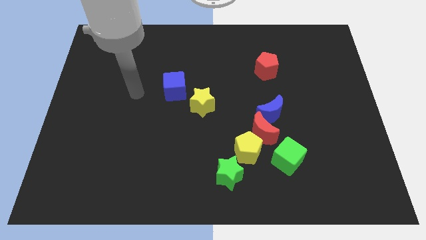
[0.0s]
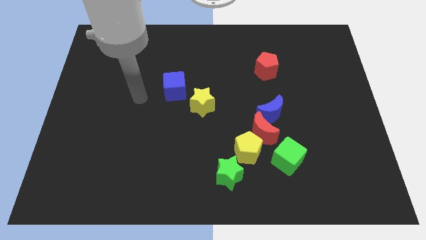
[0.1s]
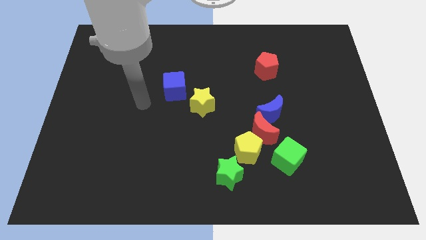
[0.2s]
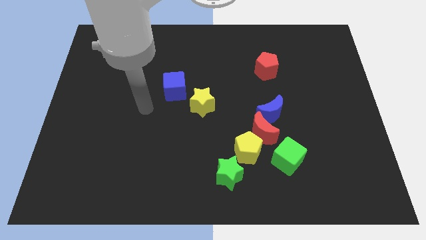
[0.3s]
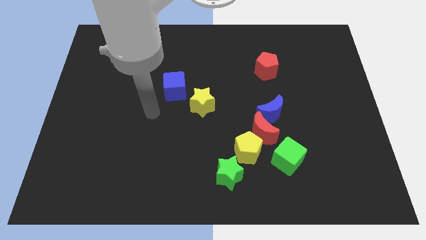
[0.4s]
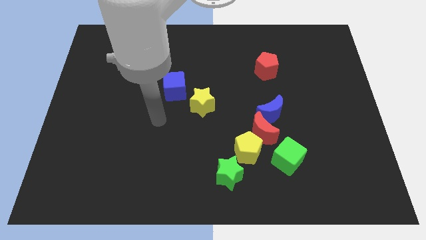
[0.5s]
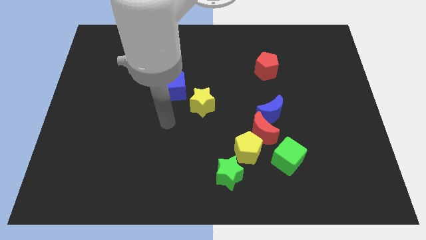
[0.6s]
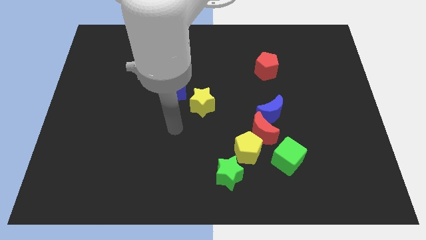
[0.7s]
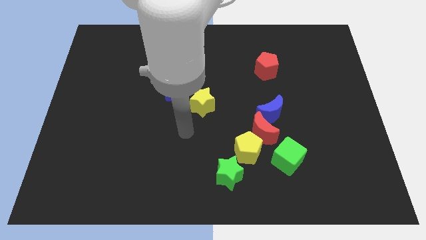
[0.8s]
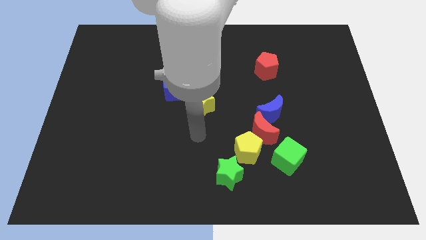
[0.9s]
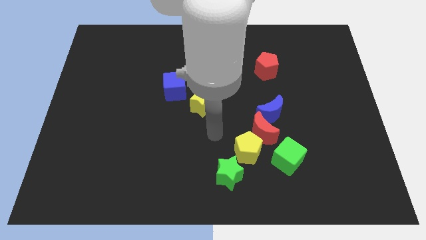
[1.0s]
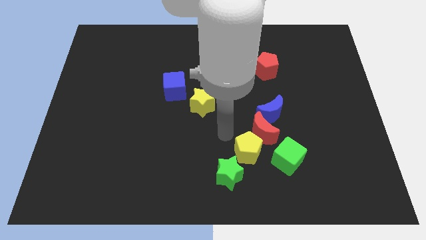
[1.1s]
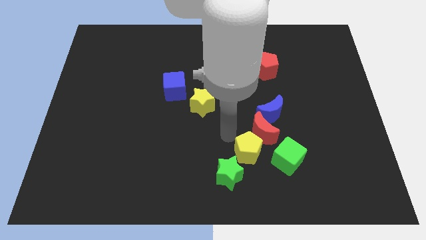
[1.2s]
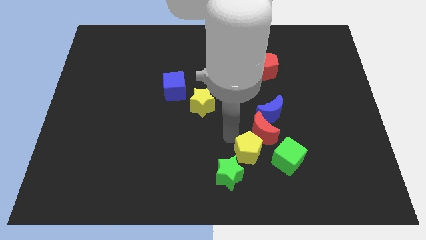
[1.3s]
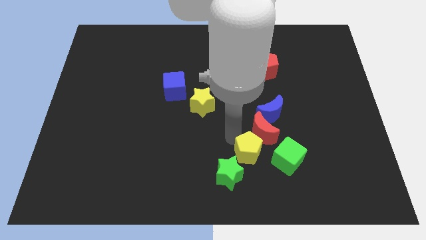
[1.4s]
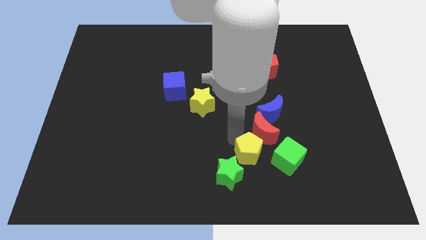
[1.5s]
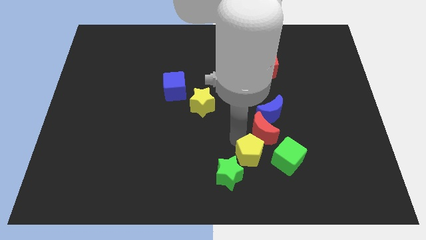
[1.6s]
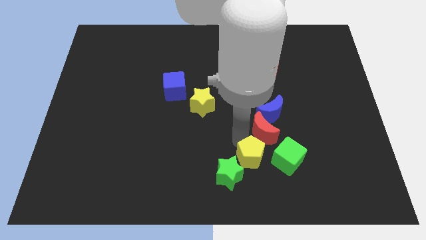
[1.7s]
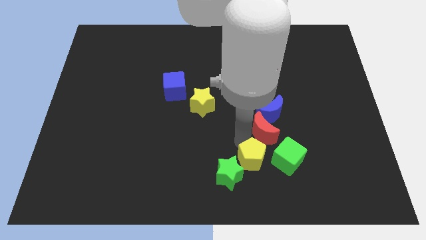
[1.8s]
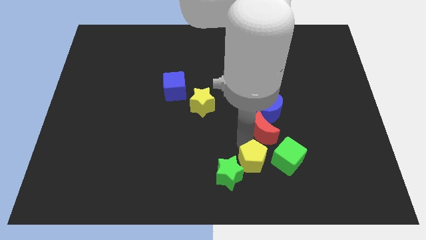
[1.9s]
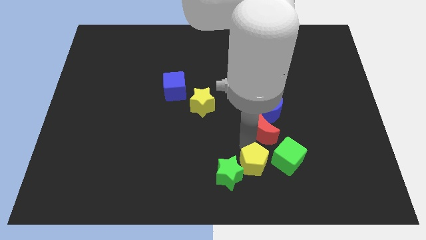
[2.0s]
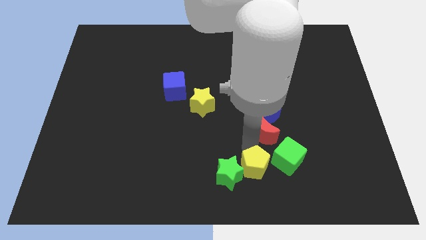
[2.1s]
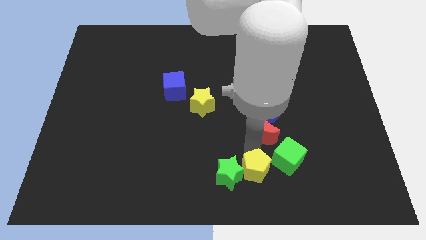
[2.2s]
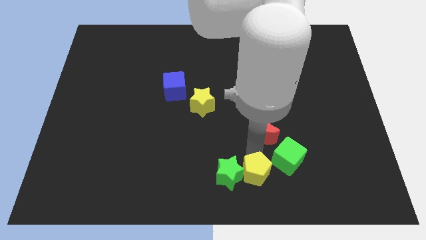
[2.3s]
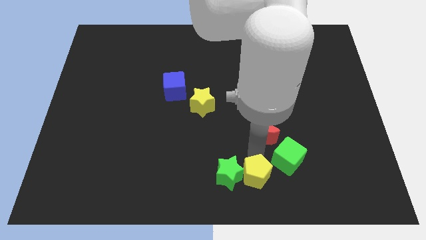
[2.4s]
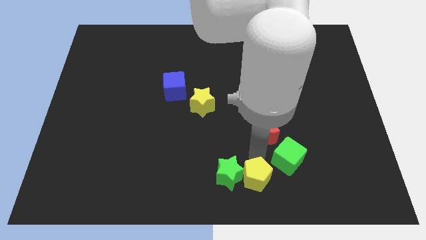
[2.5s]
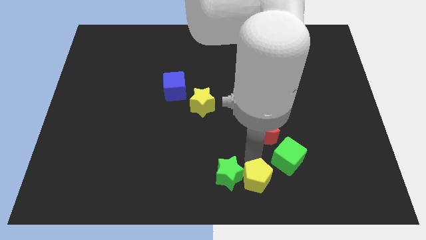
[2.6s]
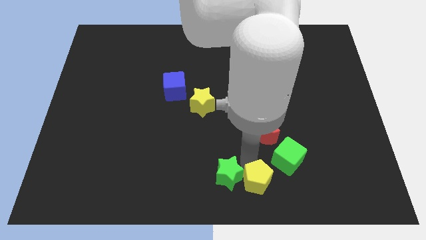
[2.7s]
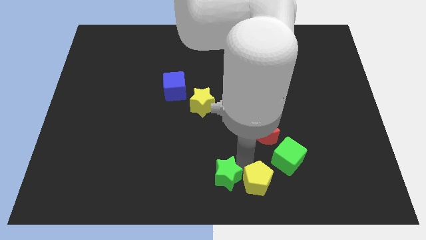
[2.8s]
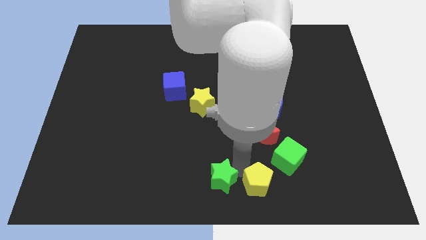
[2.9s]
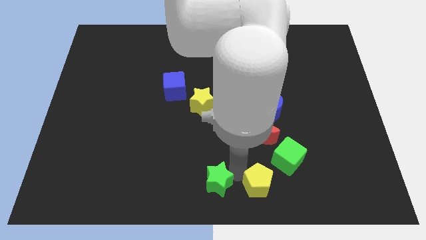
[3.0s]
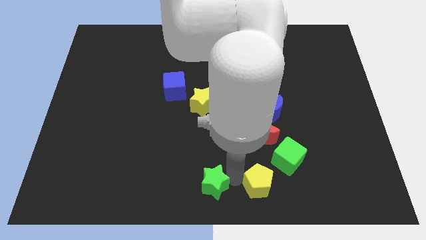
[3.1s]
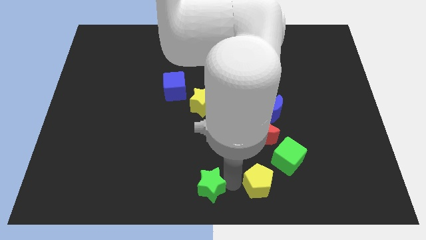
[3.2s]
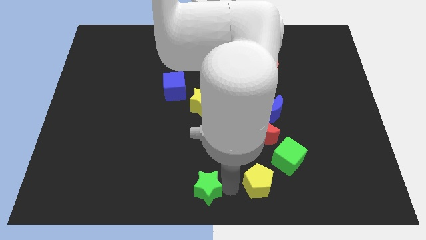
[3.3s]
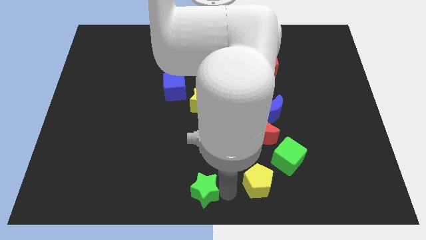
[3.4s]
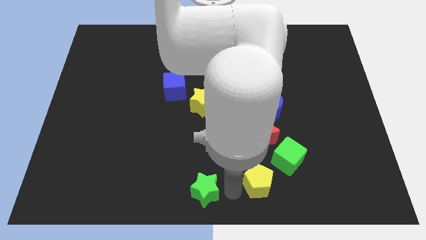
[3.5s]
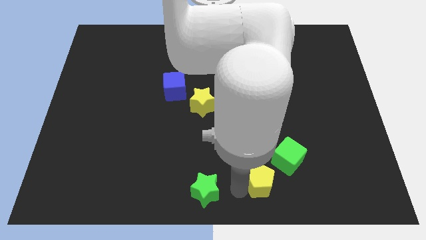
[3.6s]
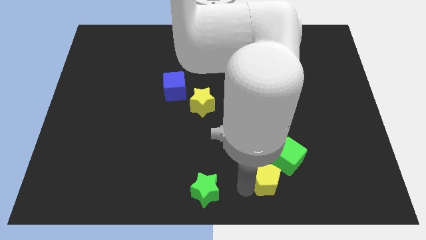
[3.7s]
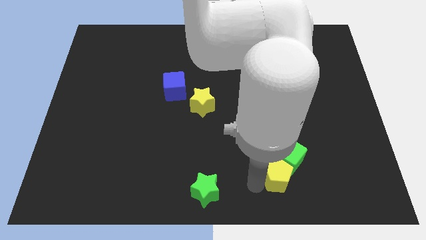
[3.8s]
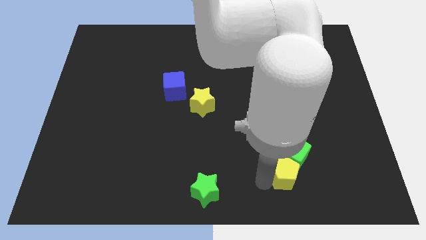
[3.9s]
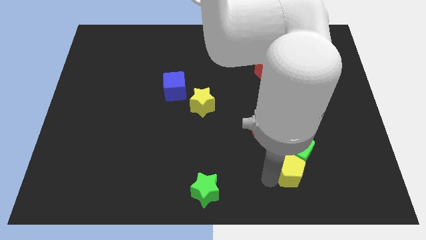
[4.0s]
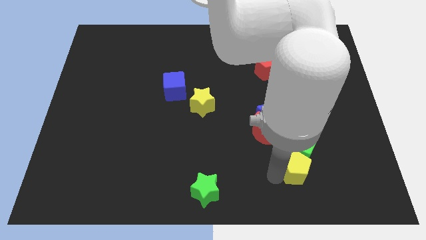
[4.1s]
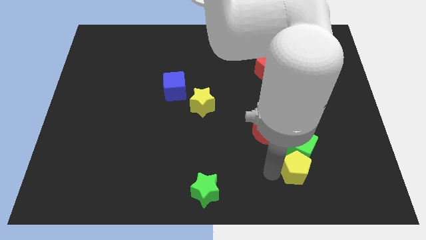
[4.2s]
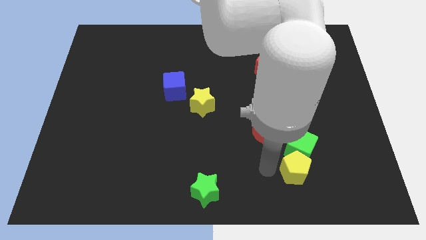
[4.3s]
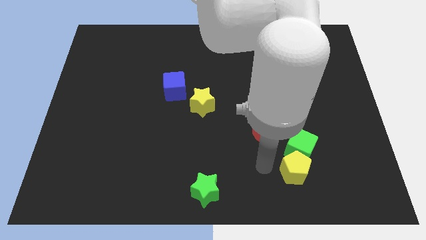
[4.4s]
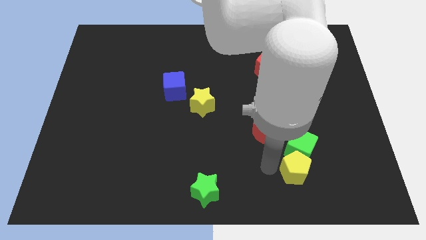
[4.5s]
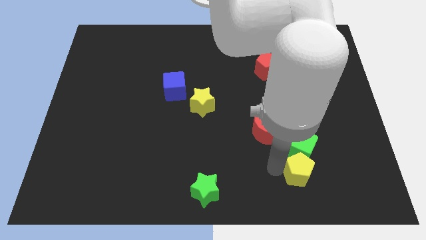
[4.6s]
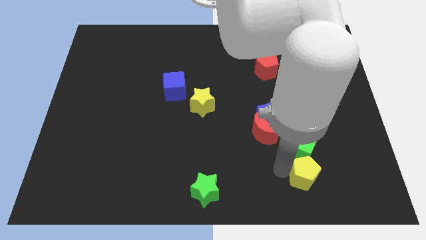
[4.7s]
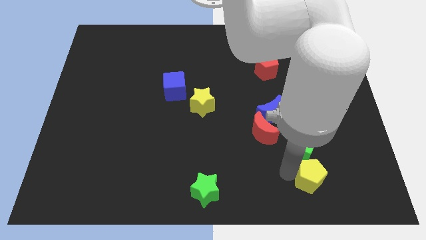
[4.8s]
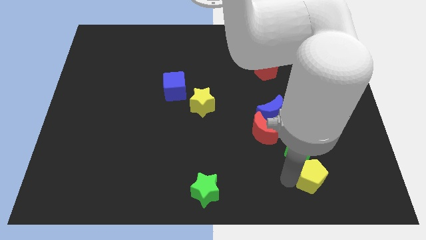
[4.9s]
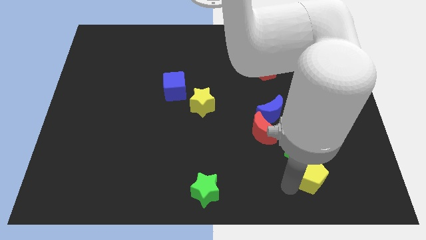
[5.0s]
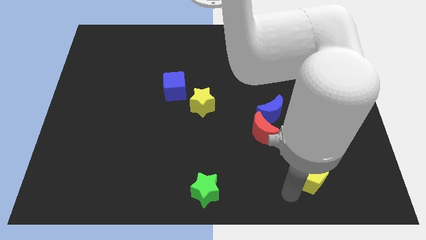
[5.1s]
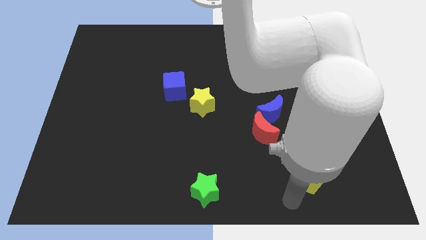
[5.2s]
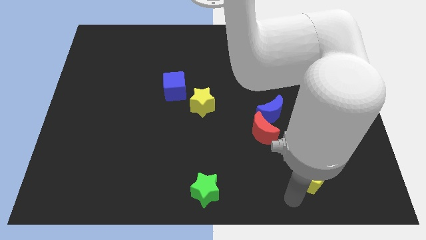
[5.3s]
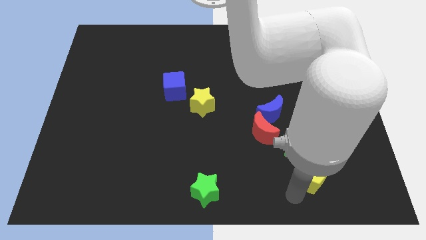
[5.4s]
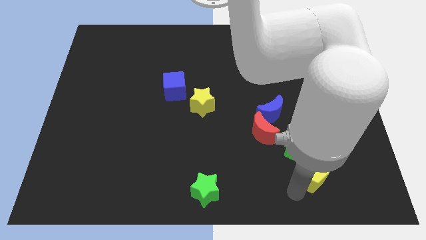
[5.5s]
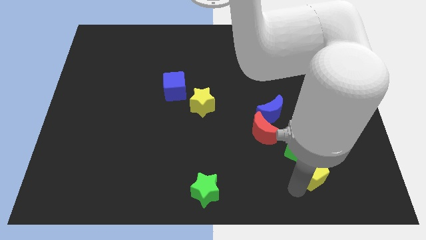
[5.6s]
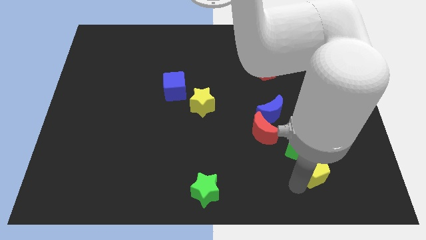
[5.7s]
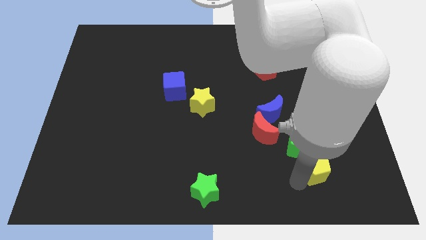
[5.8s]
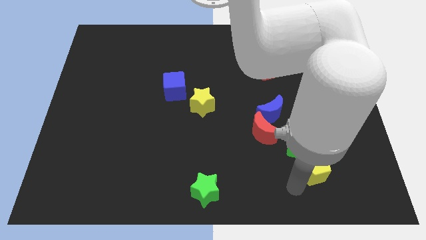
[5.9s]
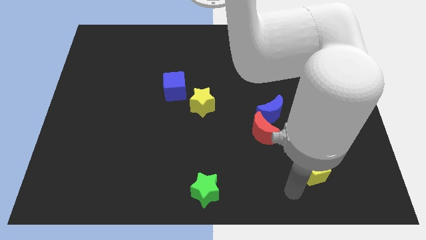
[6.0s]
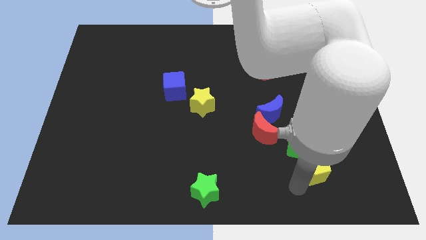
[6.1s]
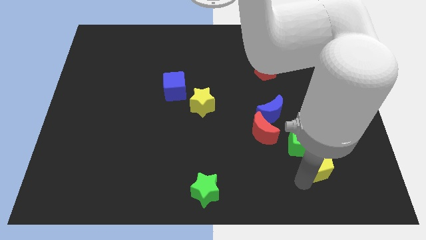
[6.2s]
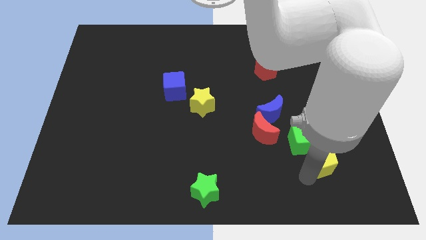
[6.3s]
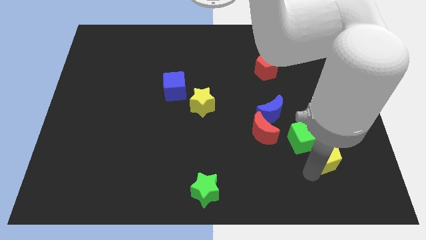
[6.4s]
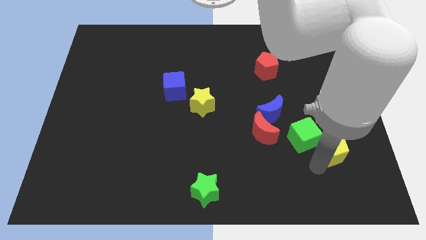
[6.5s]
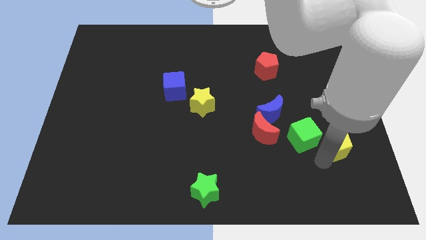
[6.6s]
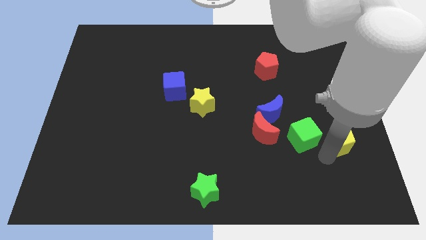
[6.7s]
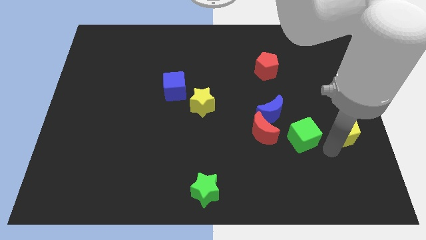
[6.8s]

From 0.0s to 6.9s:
move the yellow pentagon to the right side

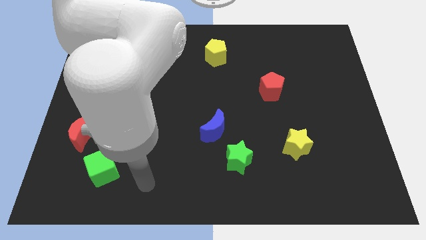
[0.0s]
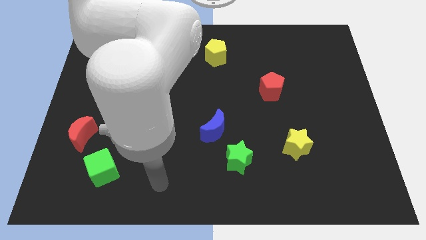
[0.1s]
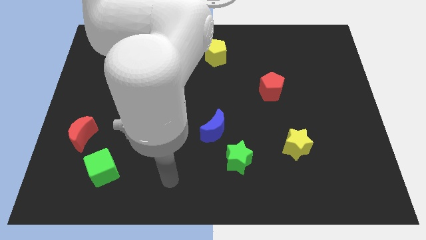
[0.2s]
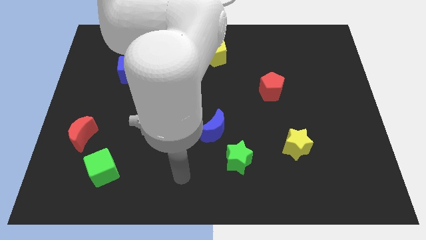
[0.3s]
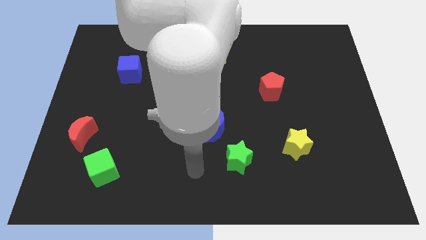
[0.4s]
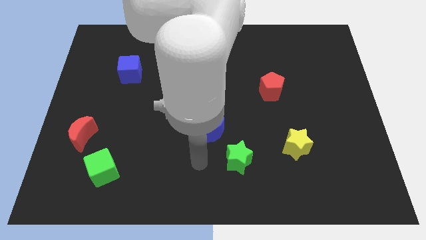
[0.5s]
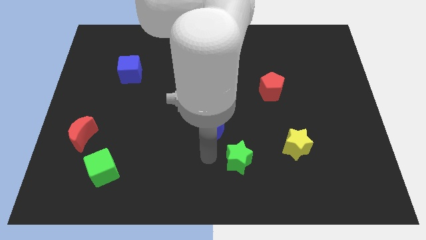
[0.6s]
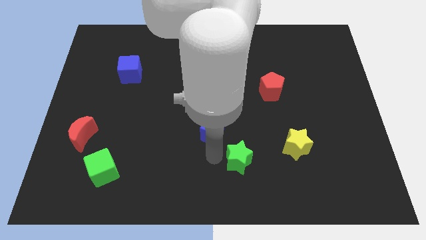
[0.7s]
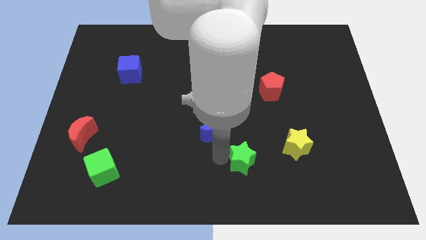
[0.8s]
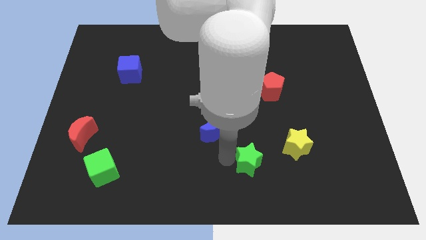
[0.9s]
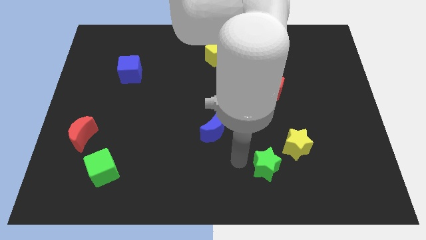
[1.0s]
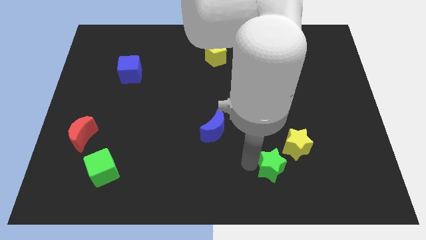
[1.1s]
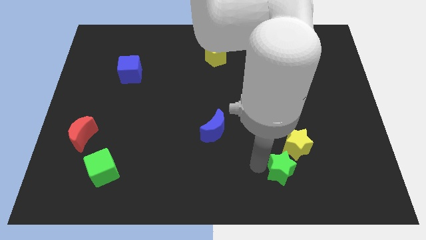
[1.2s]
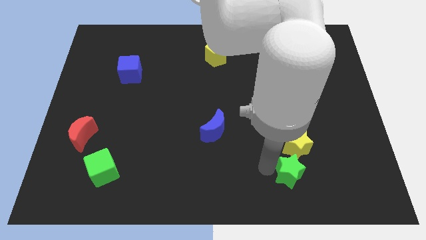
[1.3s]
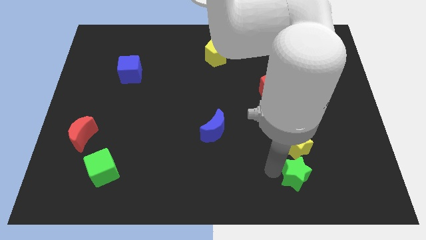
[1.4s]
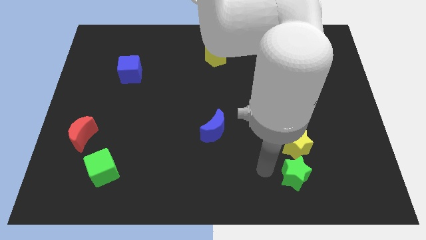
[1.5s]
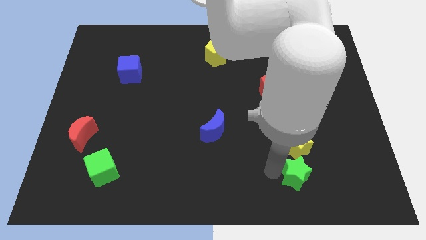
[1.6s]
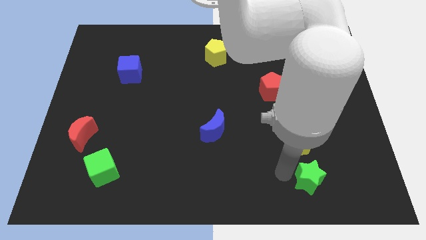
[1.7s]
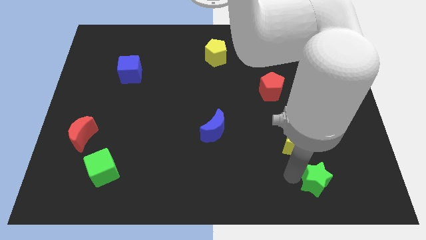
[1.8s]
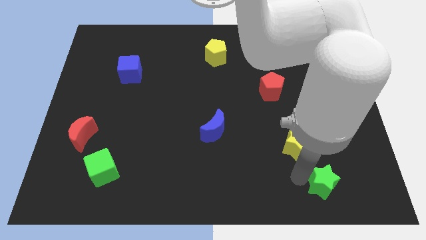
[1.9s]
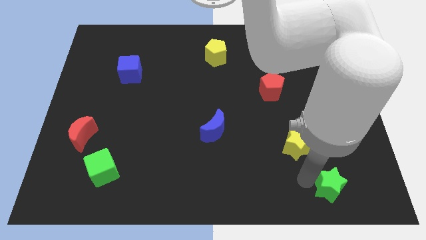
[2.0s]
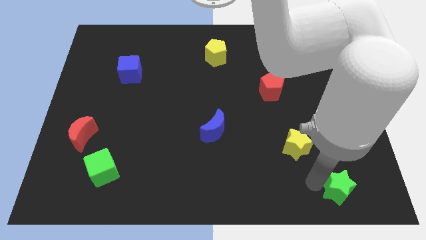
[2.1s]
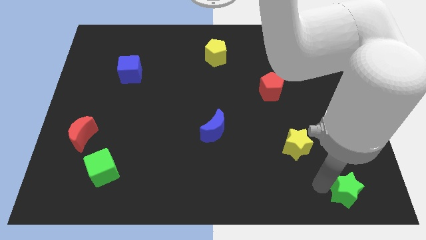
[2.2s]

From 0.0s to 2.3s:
move the green star to the bottom right corner
